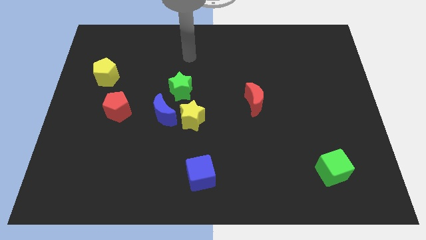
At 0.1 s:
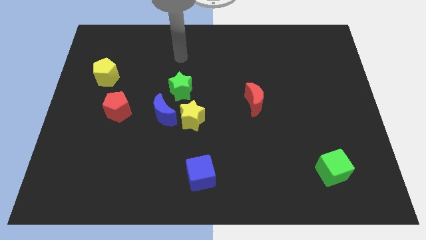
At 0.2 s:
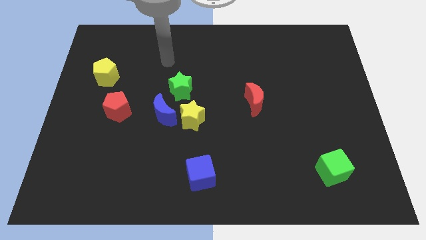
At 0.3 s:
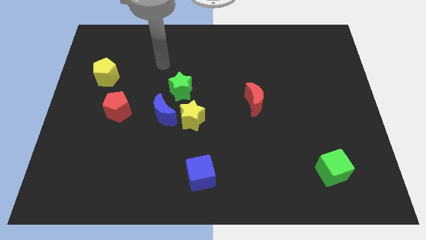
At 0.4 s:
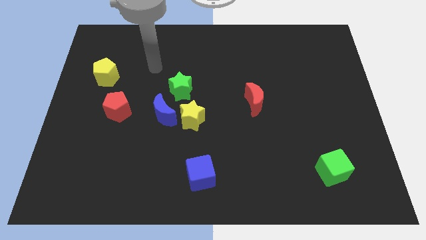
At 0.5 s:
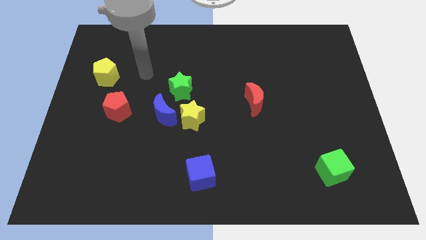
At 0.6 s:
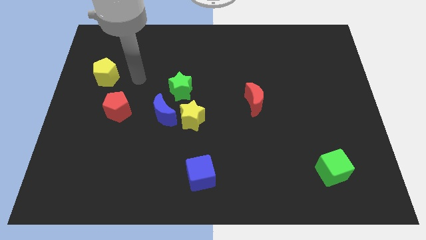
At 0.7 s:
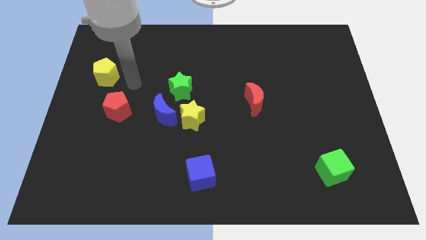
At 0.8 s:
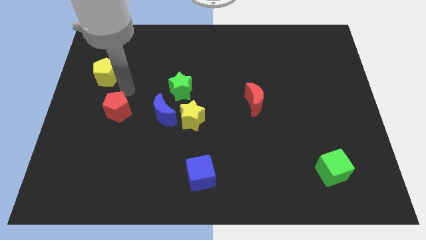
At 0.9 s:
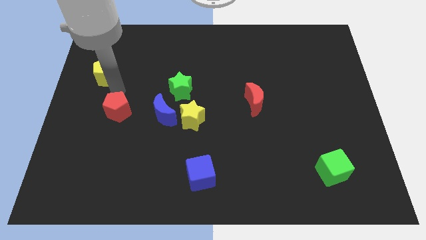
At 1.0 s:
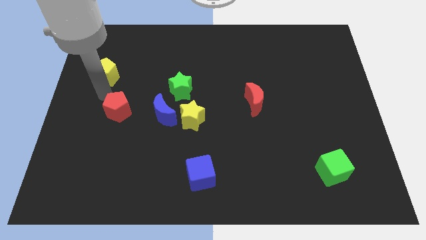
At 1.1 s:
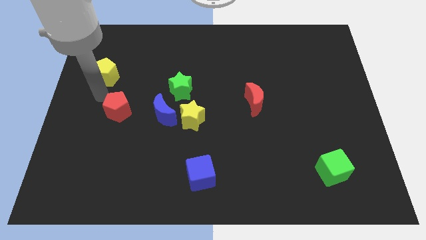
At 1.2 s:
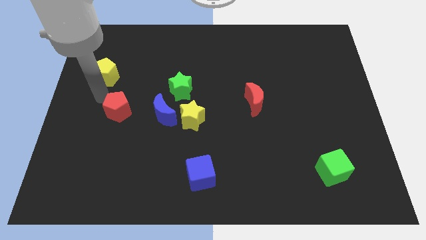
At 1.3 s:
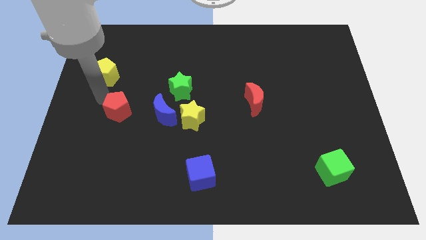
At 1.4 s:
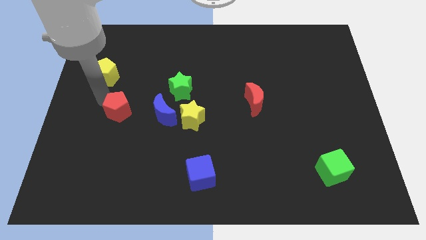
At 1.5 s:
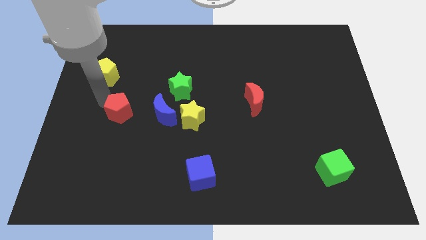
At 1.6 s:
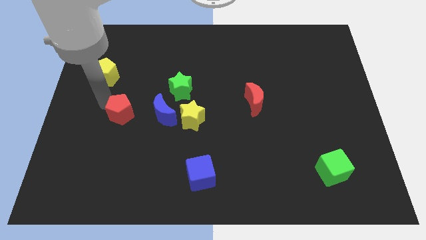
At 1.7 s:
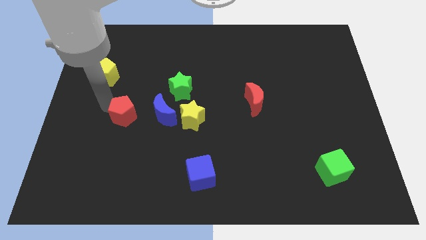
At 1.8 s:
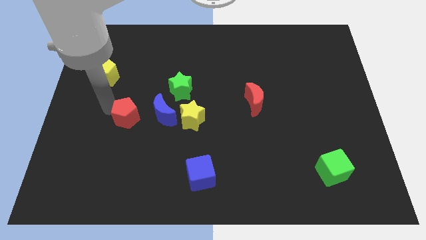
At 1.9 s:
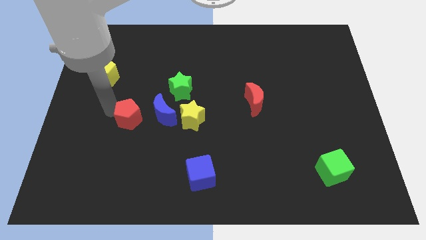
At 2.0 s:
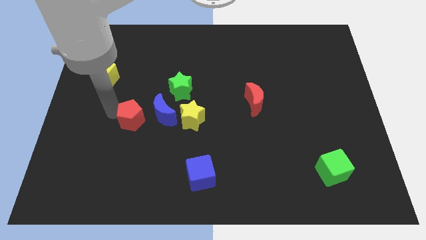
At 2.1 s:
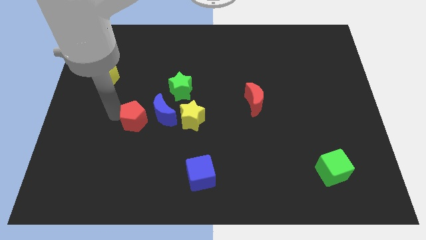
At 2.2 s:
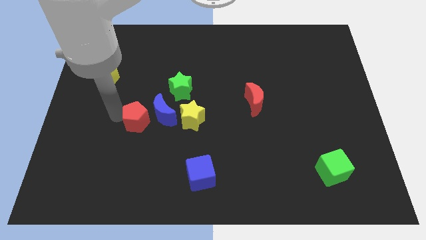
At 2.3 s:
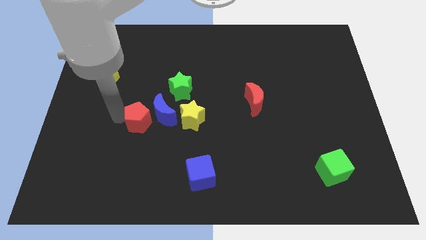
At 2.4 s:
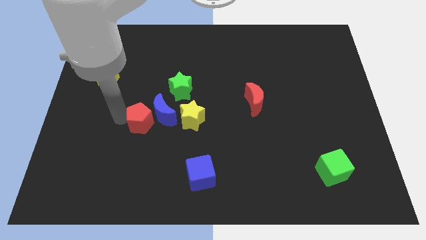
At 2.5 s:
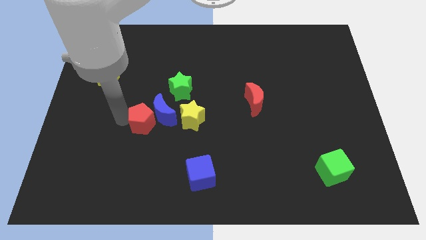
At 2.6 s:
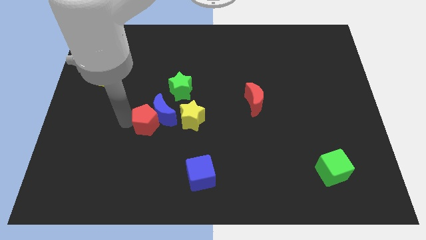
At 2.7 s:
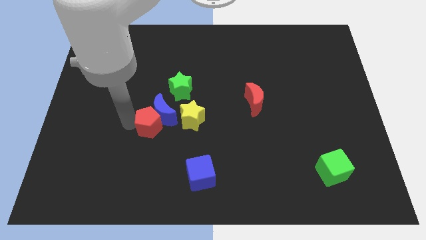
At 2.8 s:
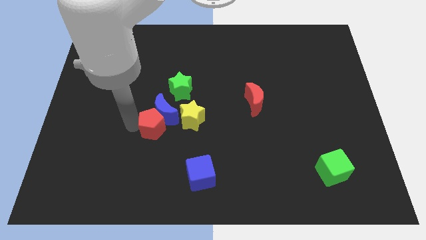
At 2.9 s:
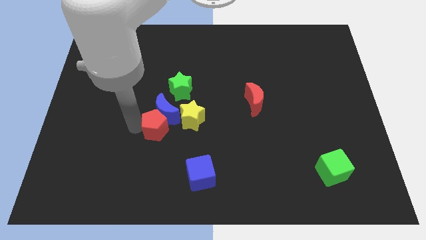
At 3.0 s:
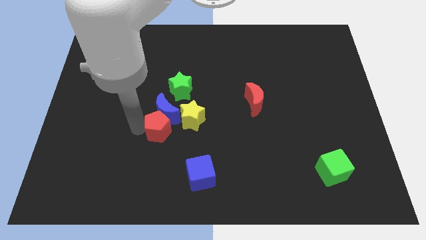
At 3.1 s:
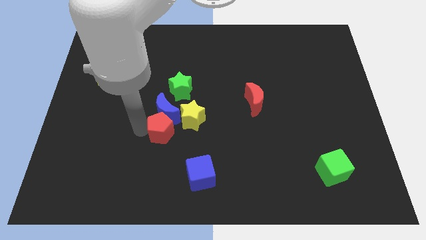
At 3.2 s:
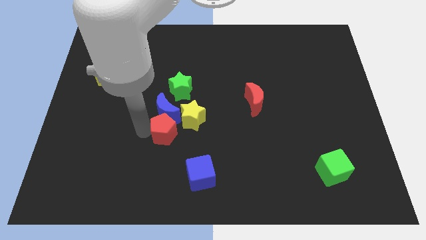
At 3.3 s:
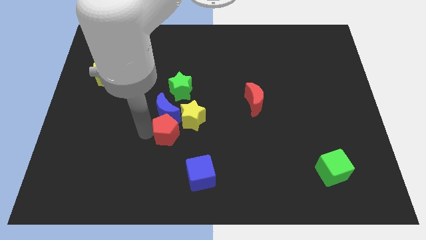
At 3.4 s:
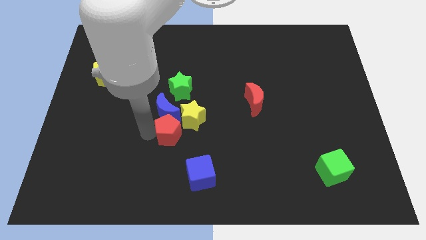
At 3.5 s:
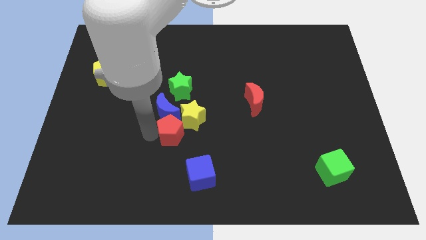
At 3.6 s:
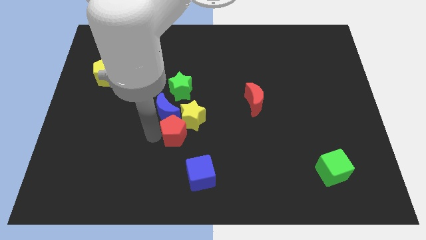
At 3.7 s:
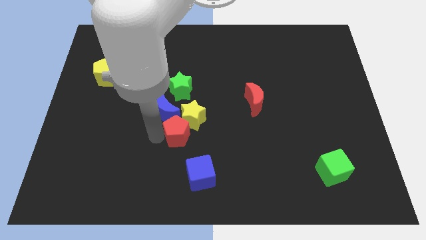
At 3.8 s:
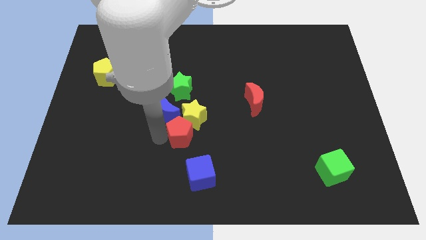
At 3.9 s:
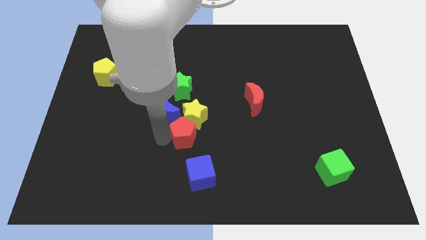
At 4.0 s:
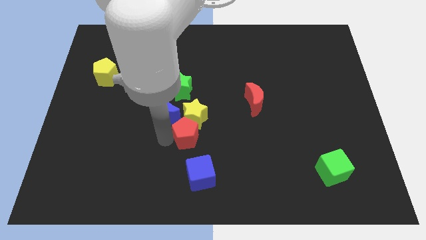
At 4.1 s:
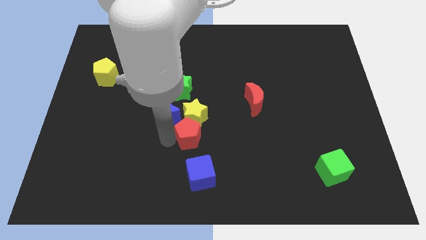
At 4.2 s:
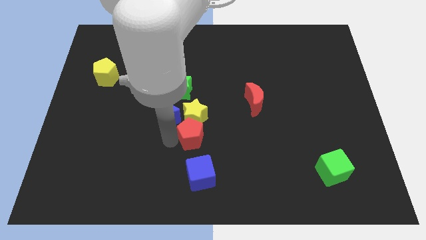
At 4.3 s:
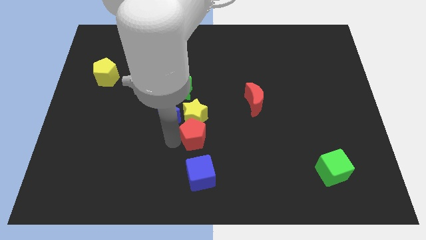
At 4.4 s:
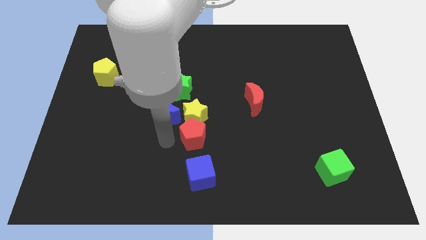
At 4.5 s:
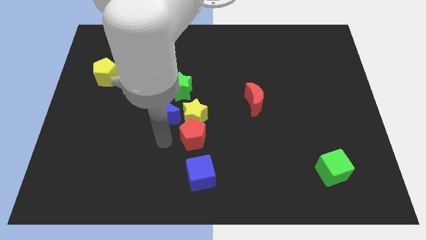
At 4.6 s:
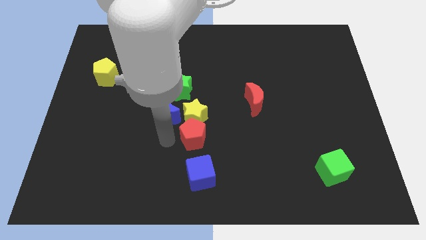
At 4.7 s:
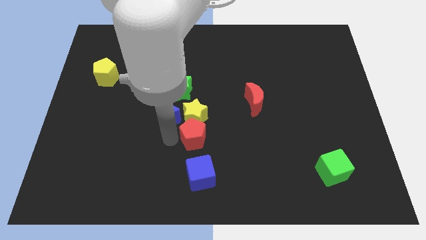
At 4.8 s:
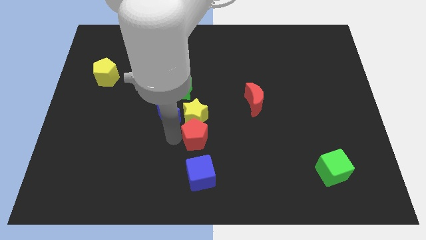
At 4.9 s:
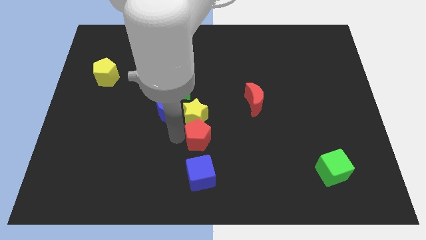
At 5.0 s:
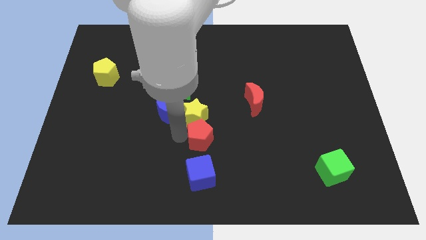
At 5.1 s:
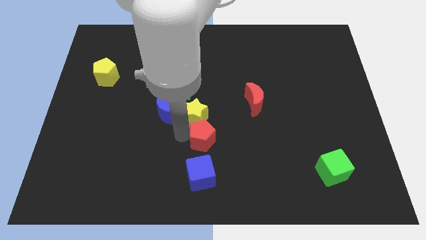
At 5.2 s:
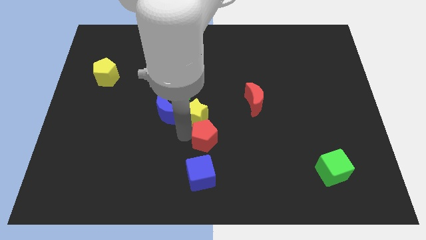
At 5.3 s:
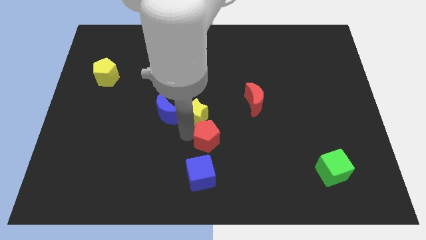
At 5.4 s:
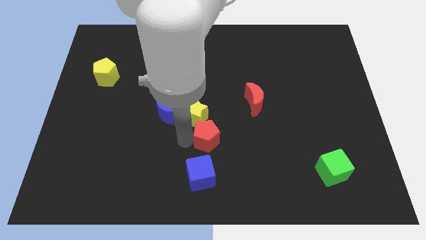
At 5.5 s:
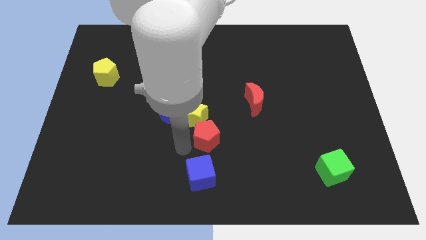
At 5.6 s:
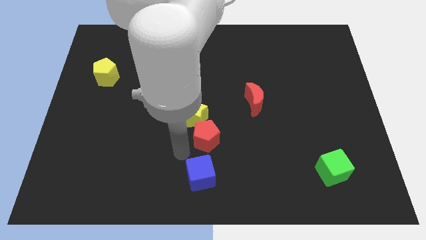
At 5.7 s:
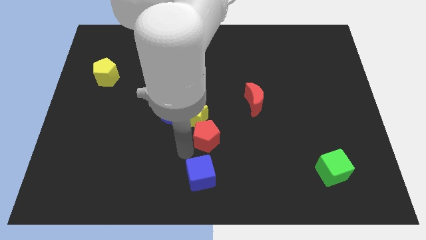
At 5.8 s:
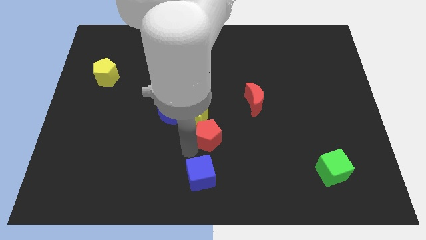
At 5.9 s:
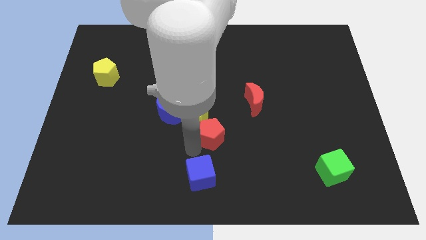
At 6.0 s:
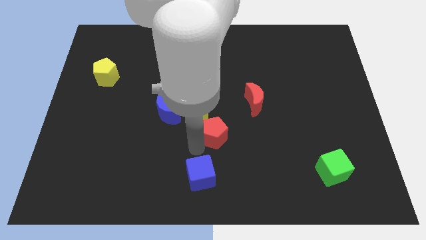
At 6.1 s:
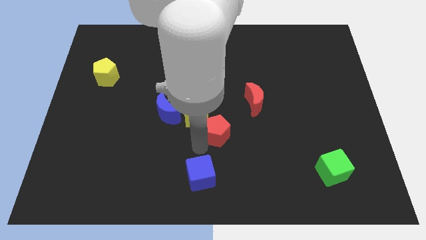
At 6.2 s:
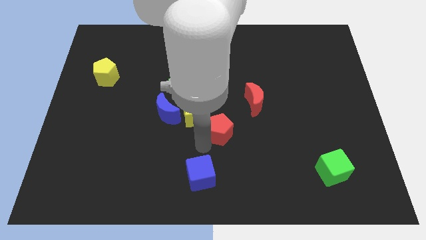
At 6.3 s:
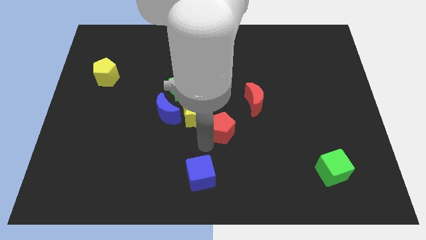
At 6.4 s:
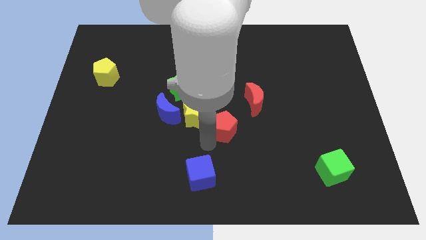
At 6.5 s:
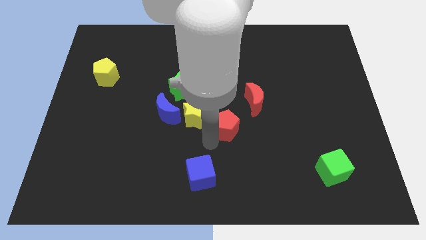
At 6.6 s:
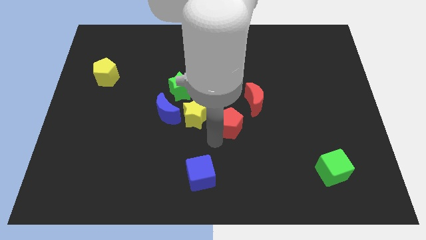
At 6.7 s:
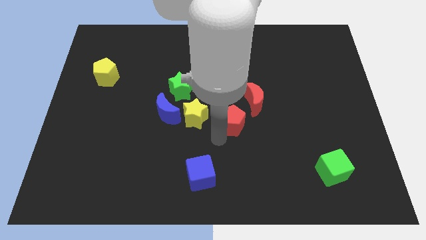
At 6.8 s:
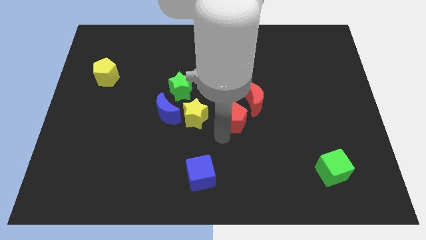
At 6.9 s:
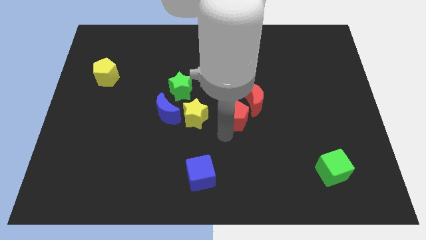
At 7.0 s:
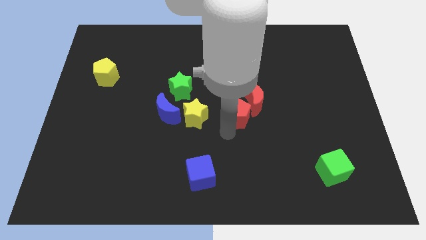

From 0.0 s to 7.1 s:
put the red pentagon to the red moon

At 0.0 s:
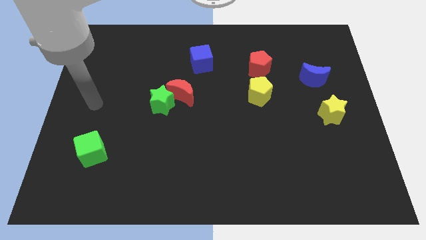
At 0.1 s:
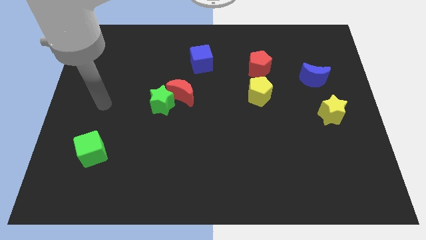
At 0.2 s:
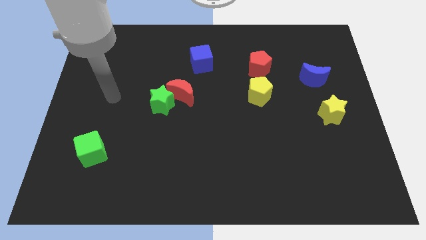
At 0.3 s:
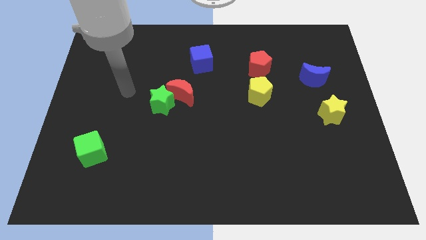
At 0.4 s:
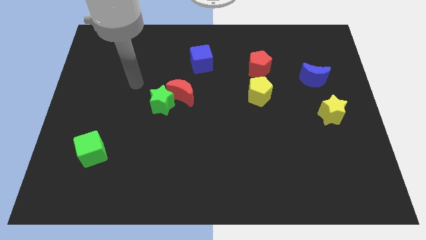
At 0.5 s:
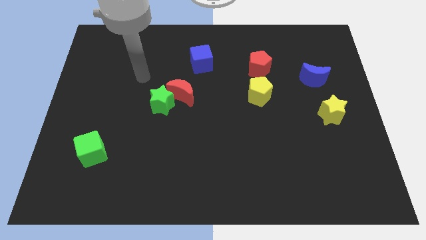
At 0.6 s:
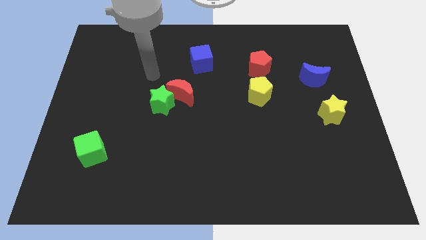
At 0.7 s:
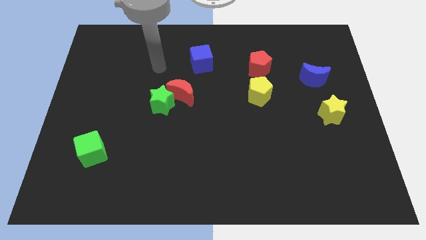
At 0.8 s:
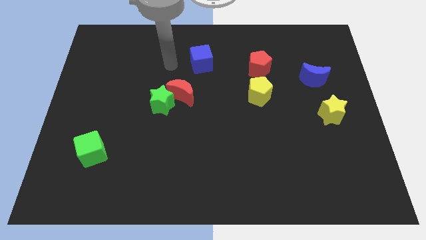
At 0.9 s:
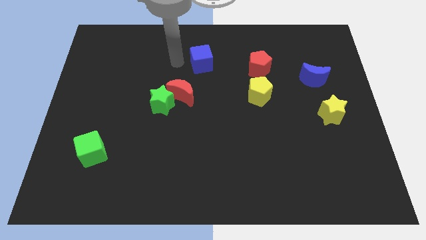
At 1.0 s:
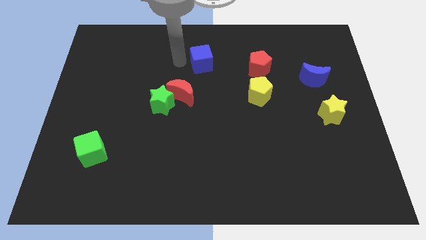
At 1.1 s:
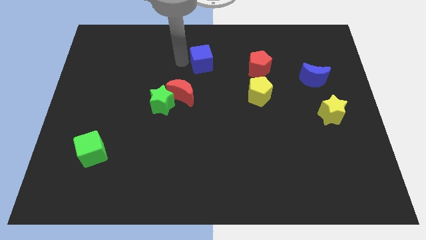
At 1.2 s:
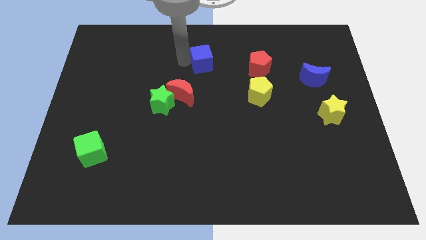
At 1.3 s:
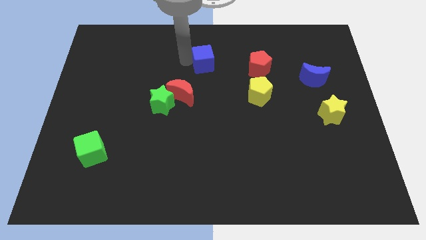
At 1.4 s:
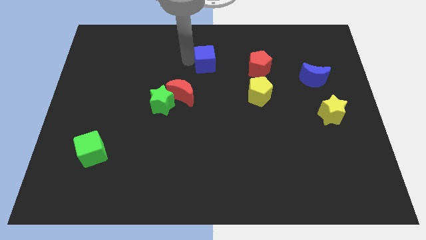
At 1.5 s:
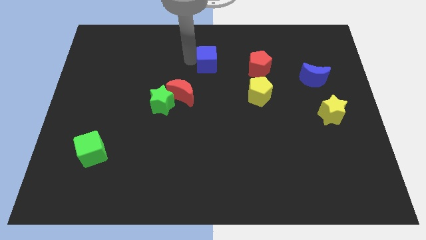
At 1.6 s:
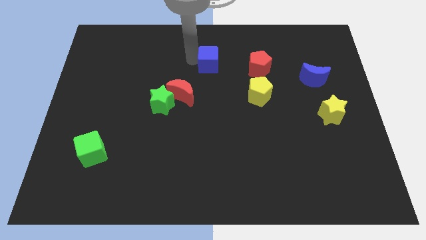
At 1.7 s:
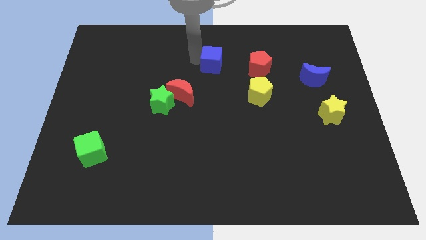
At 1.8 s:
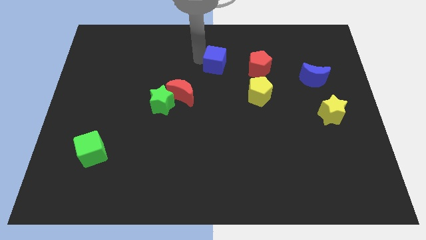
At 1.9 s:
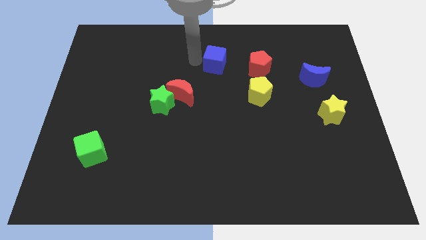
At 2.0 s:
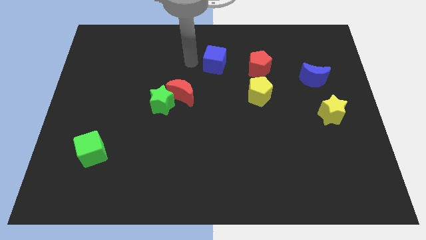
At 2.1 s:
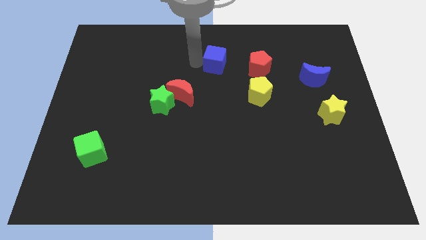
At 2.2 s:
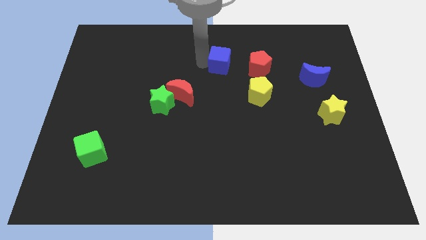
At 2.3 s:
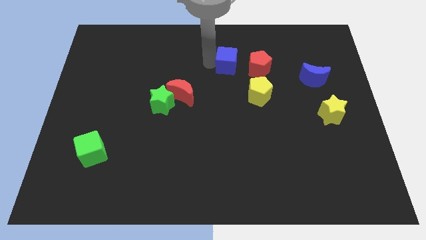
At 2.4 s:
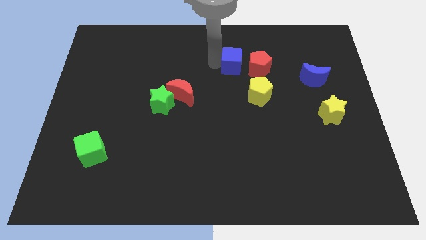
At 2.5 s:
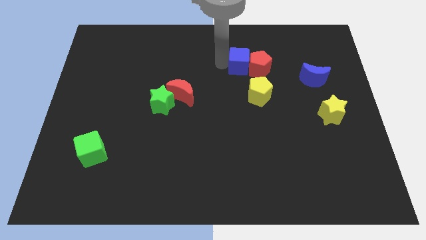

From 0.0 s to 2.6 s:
move the blue cube towards the red pentagon
